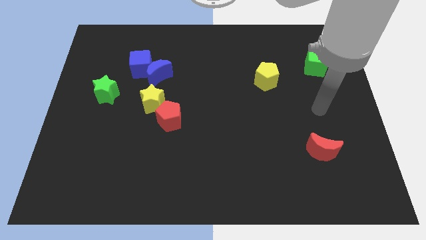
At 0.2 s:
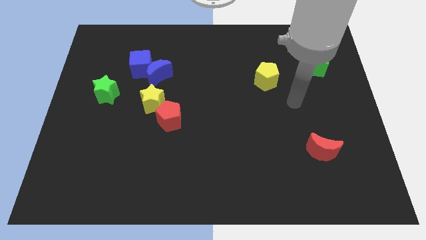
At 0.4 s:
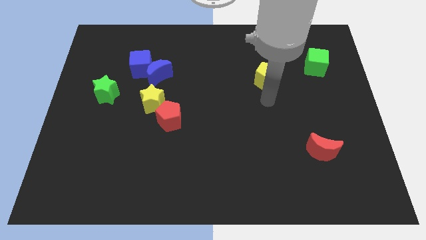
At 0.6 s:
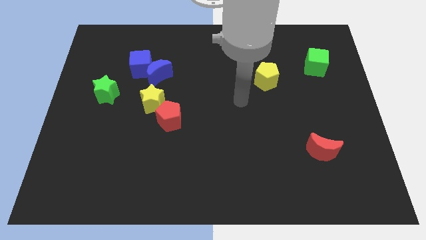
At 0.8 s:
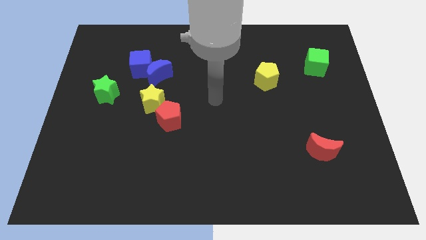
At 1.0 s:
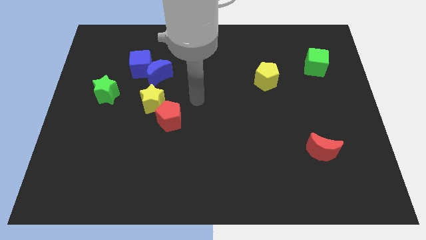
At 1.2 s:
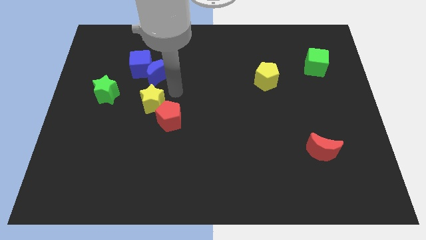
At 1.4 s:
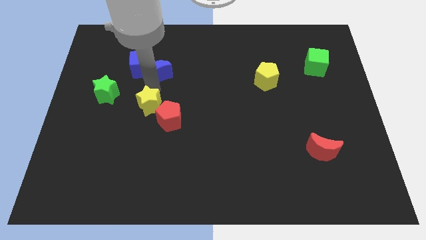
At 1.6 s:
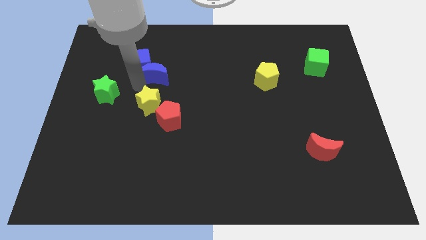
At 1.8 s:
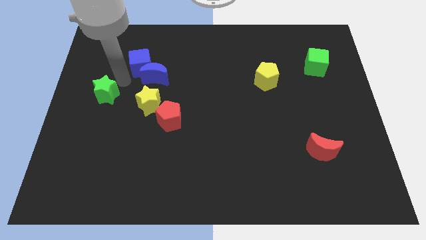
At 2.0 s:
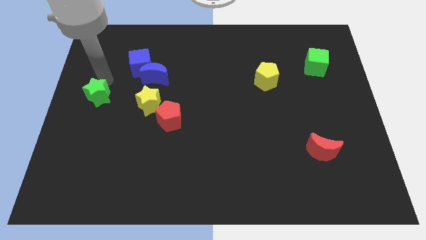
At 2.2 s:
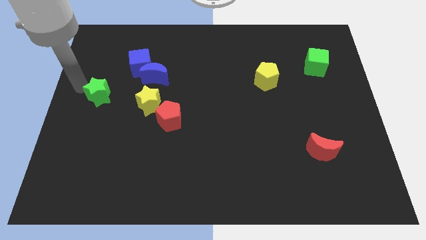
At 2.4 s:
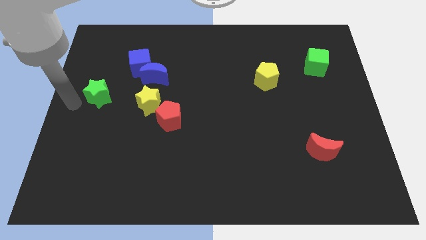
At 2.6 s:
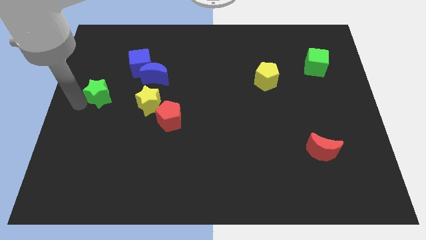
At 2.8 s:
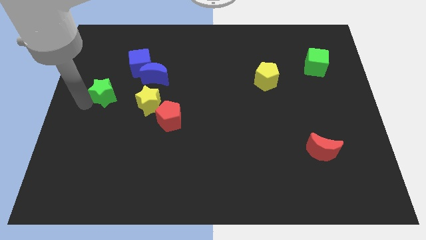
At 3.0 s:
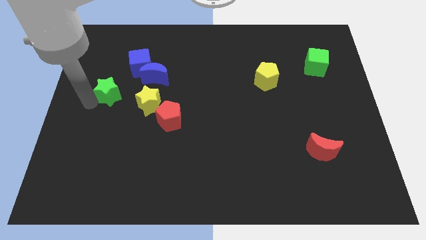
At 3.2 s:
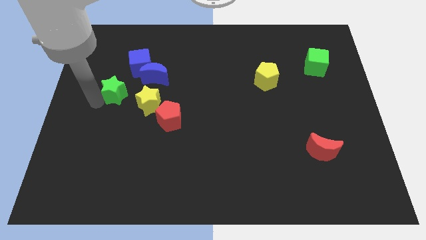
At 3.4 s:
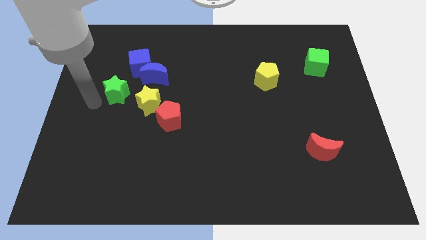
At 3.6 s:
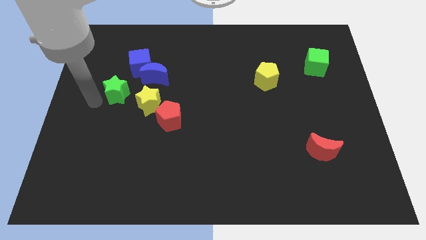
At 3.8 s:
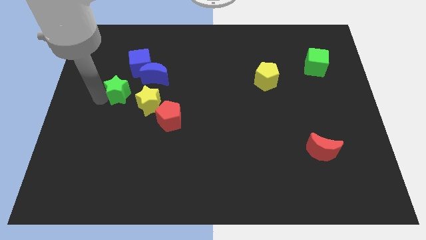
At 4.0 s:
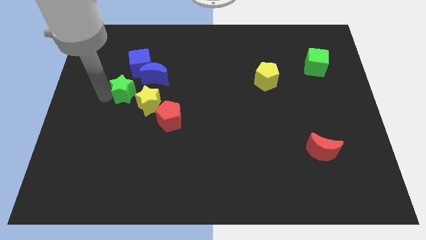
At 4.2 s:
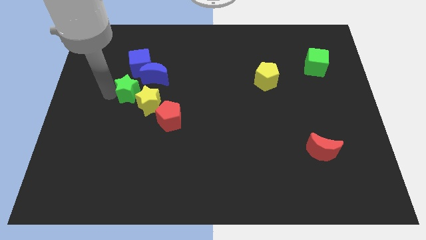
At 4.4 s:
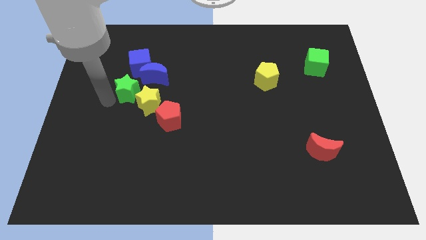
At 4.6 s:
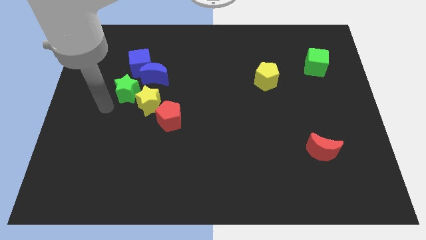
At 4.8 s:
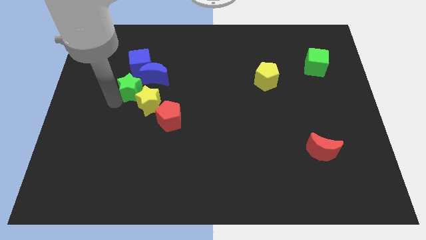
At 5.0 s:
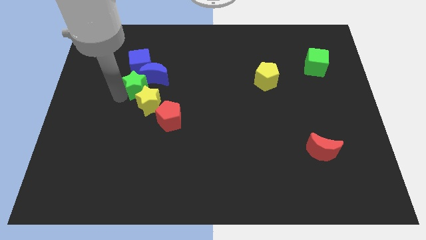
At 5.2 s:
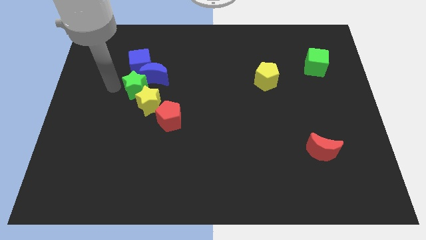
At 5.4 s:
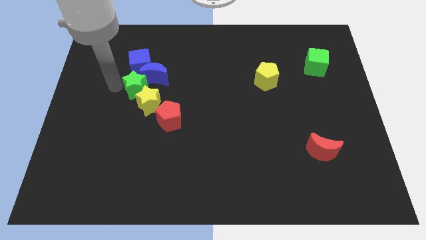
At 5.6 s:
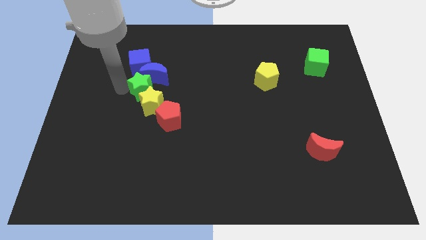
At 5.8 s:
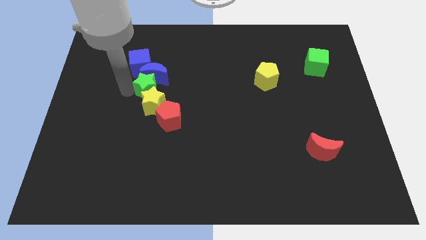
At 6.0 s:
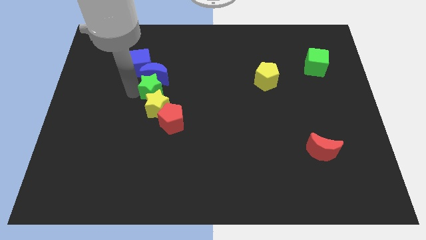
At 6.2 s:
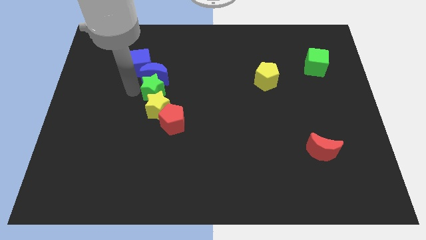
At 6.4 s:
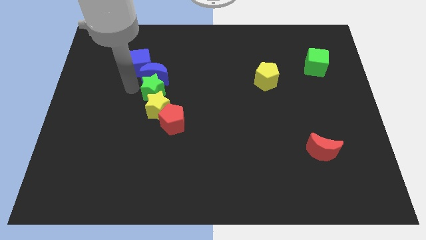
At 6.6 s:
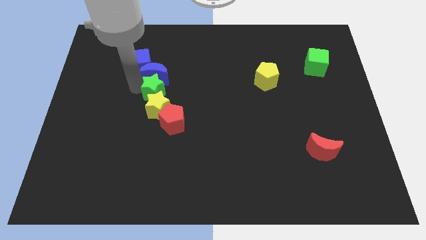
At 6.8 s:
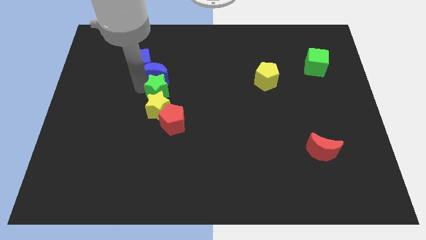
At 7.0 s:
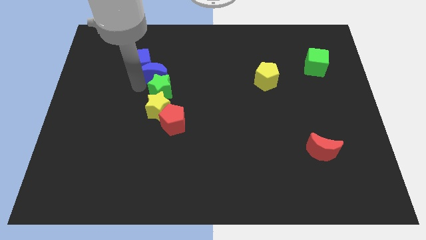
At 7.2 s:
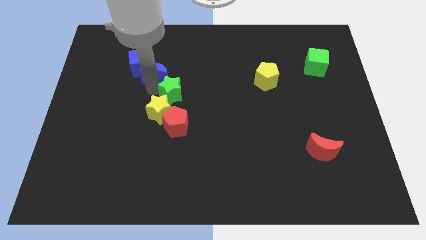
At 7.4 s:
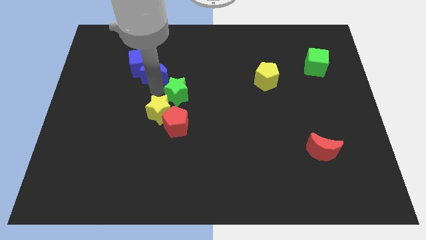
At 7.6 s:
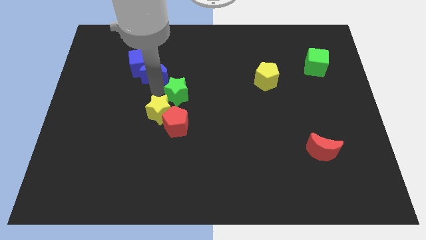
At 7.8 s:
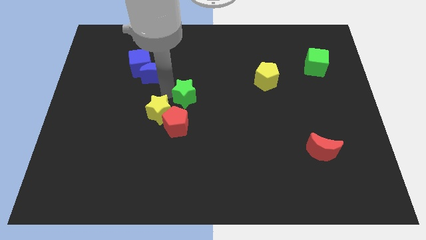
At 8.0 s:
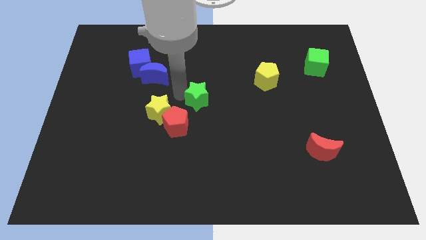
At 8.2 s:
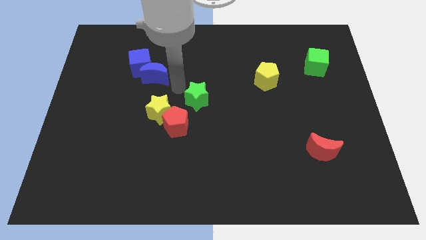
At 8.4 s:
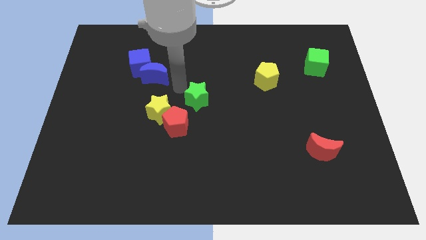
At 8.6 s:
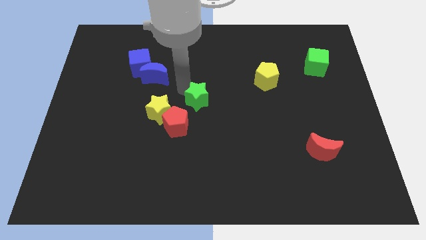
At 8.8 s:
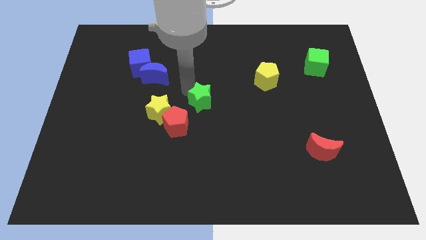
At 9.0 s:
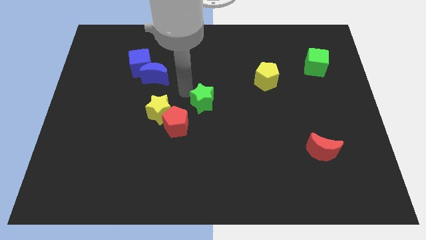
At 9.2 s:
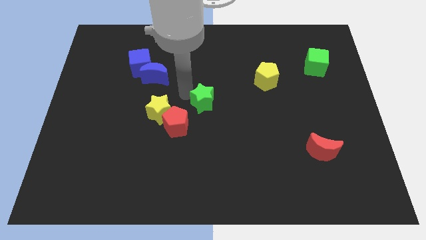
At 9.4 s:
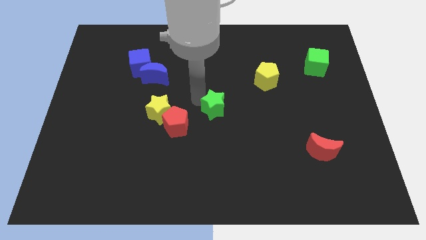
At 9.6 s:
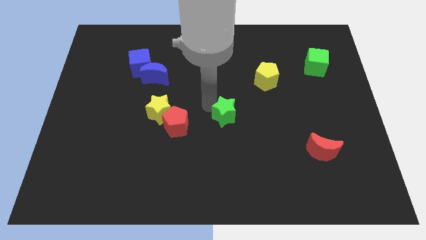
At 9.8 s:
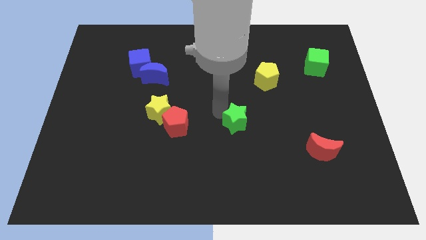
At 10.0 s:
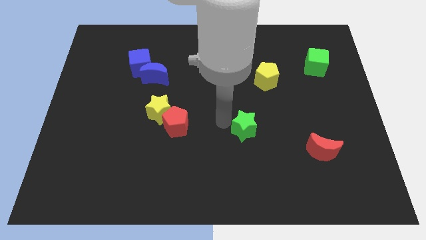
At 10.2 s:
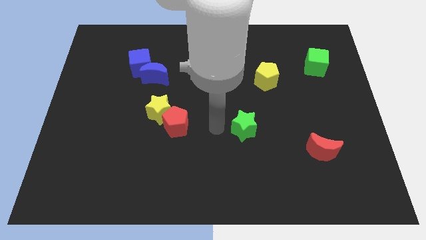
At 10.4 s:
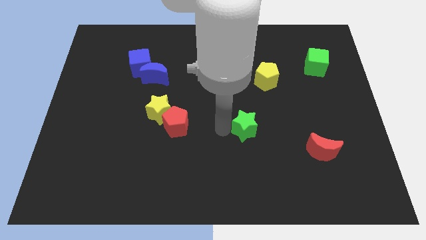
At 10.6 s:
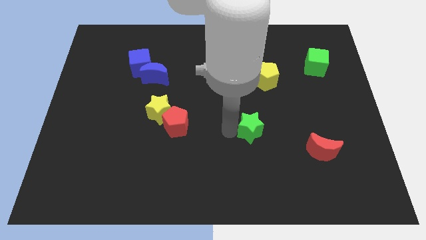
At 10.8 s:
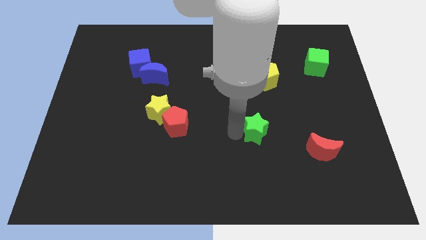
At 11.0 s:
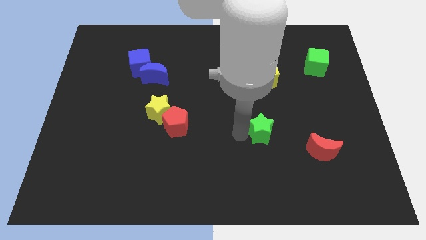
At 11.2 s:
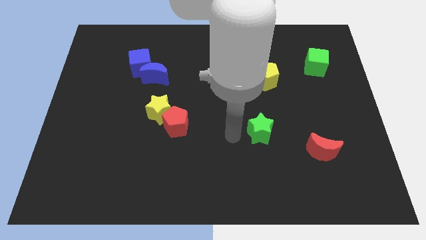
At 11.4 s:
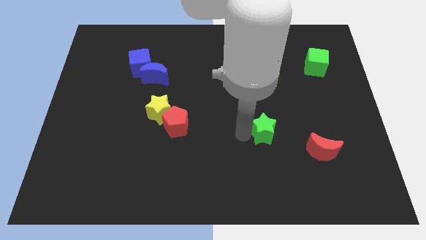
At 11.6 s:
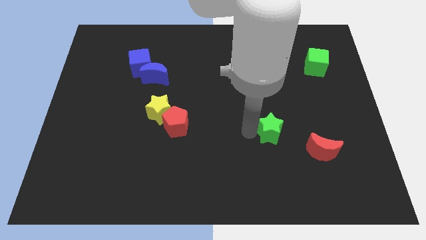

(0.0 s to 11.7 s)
put the green star to the top left of the red moon
